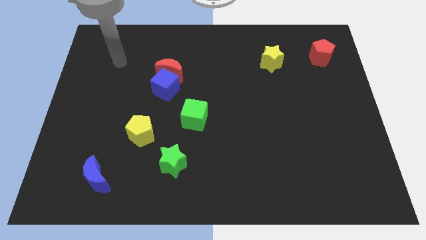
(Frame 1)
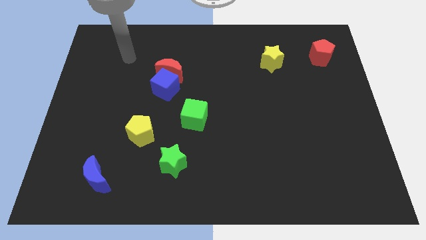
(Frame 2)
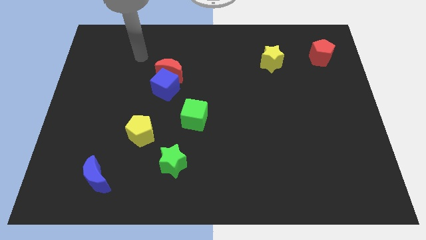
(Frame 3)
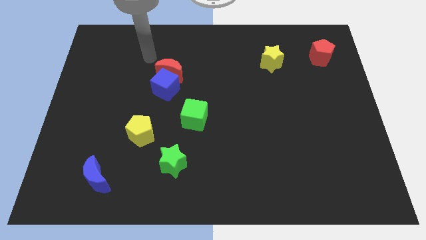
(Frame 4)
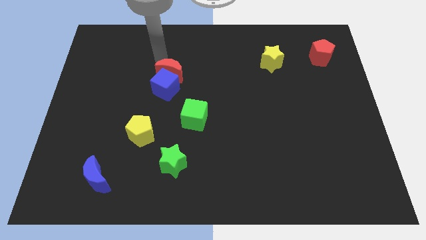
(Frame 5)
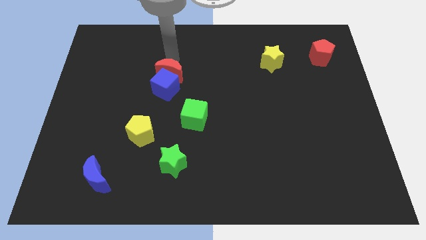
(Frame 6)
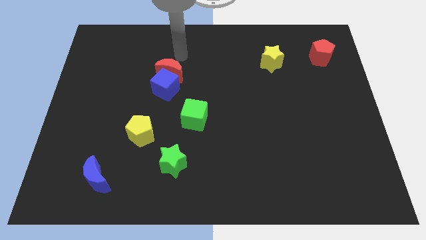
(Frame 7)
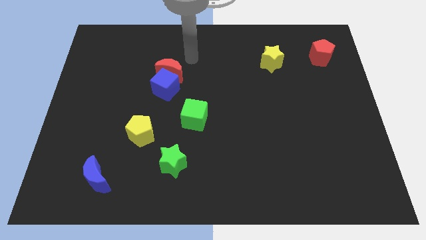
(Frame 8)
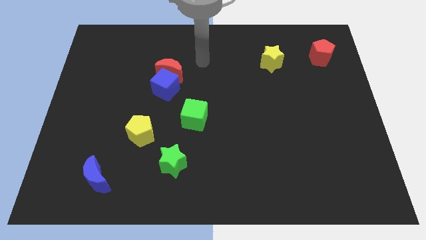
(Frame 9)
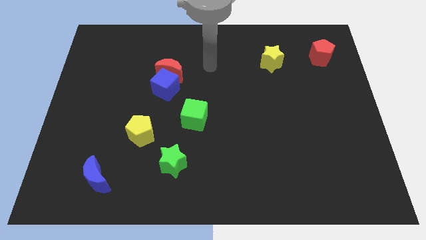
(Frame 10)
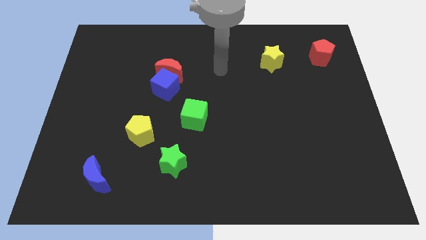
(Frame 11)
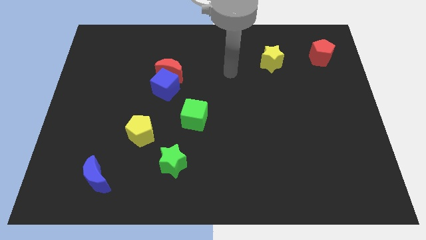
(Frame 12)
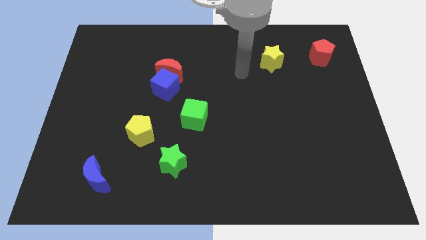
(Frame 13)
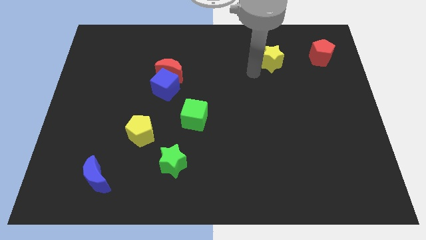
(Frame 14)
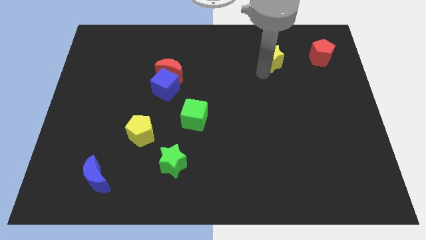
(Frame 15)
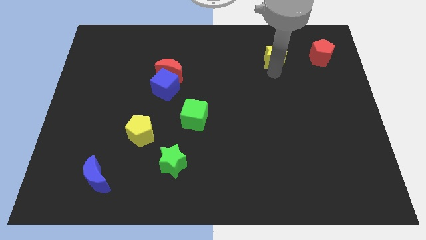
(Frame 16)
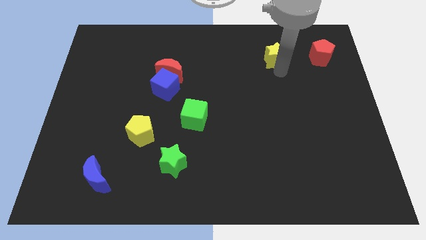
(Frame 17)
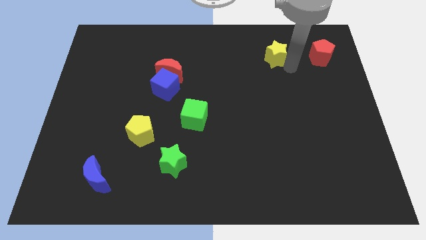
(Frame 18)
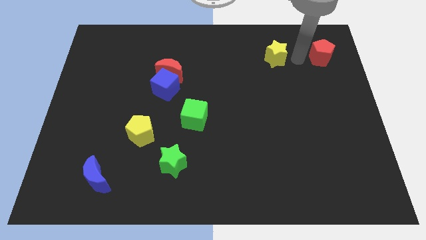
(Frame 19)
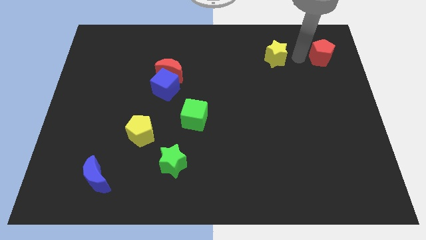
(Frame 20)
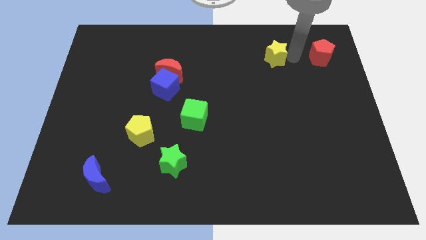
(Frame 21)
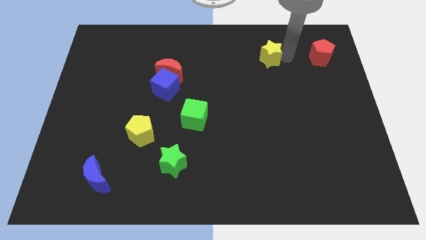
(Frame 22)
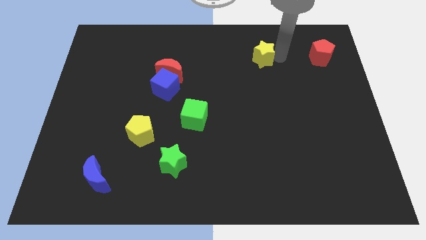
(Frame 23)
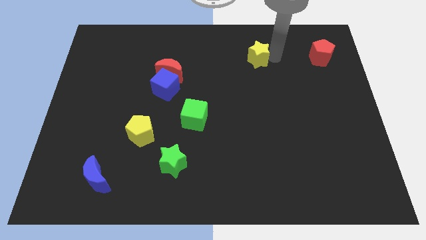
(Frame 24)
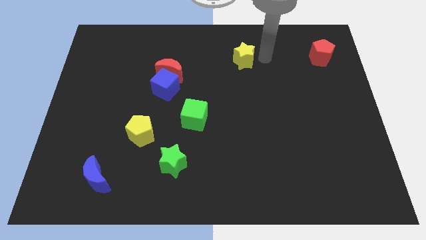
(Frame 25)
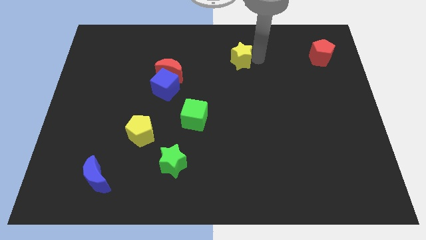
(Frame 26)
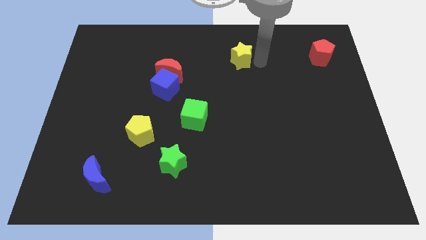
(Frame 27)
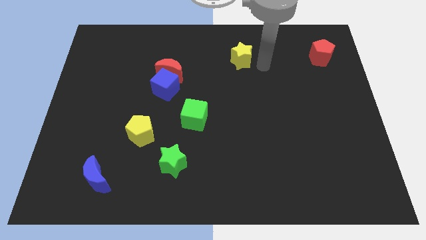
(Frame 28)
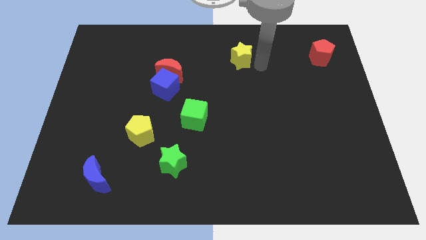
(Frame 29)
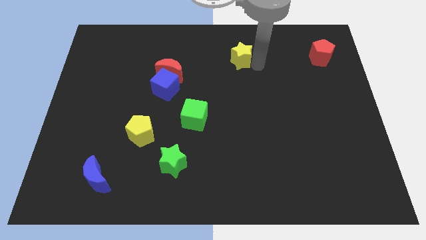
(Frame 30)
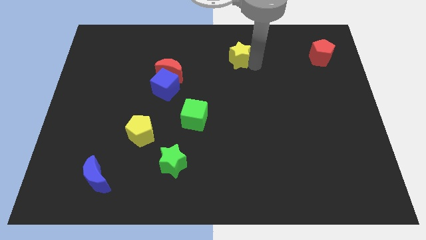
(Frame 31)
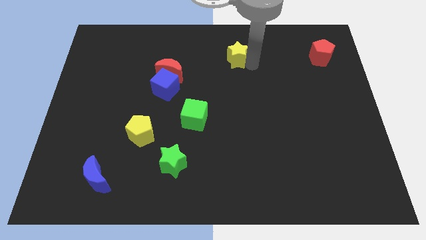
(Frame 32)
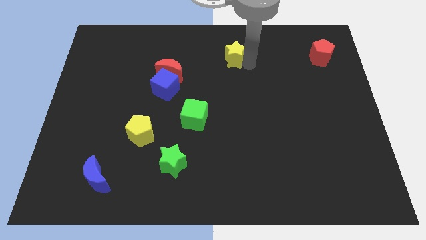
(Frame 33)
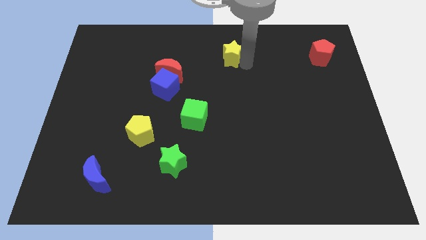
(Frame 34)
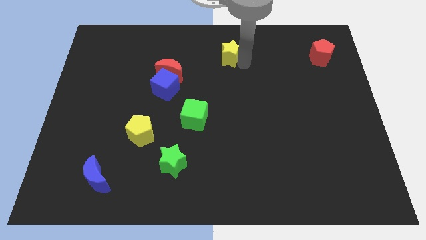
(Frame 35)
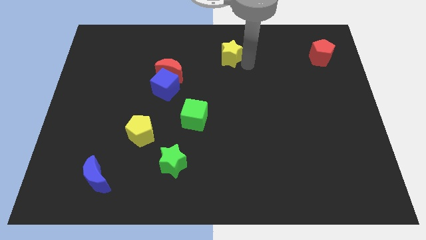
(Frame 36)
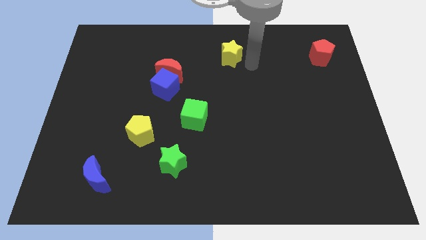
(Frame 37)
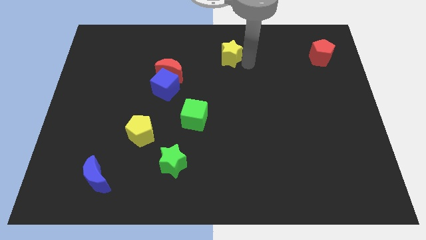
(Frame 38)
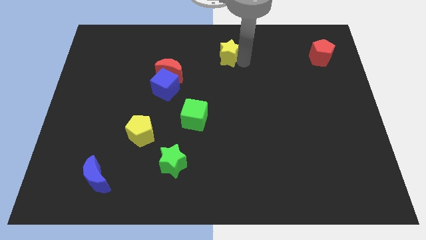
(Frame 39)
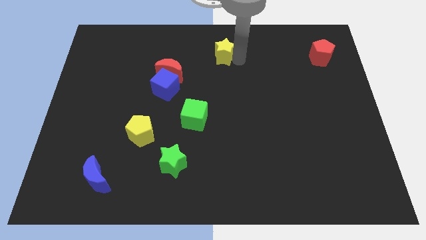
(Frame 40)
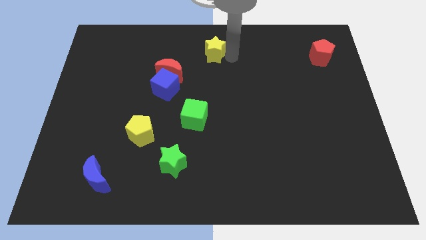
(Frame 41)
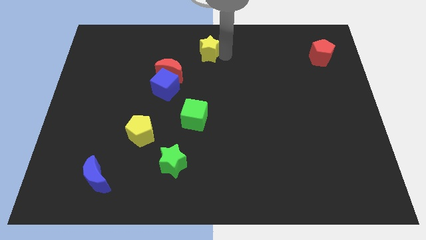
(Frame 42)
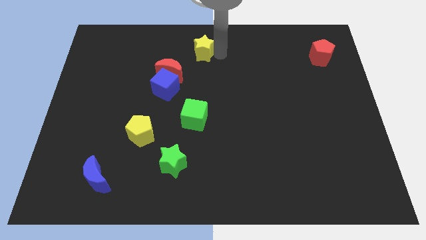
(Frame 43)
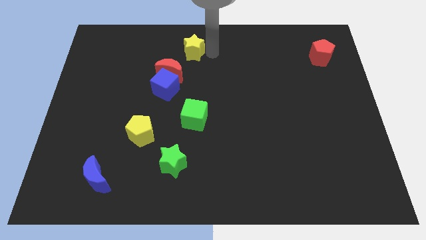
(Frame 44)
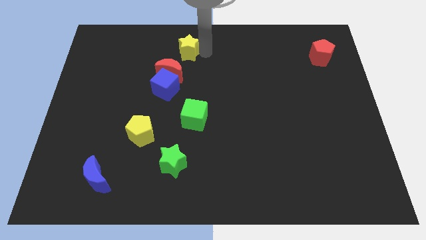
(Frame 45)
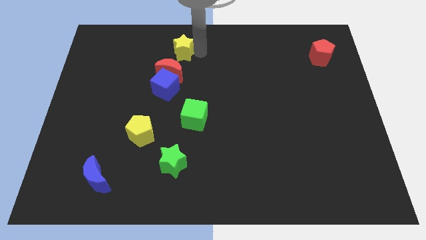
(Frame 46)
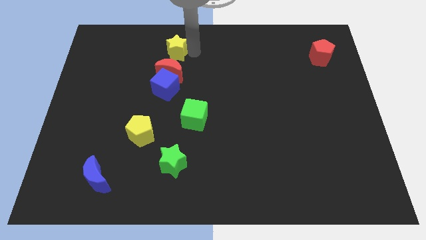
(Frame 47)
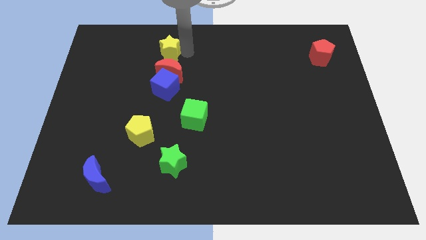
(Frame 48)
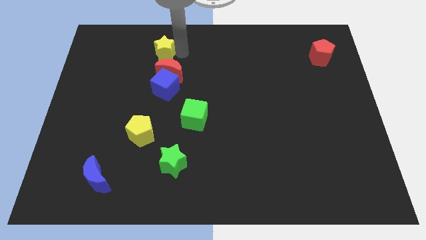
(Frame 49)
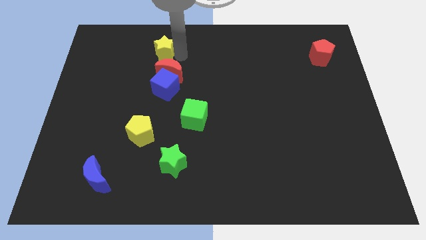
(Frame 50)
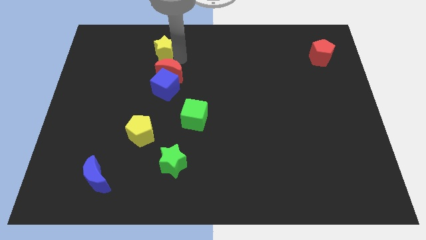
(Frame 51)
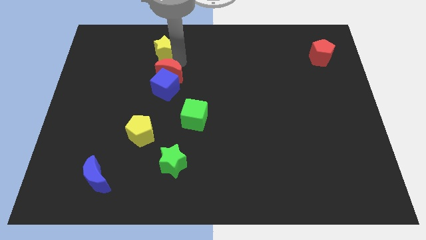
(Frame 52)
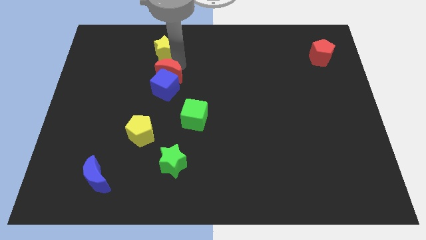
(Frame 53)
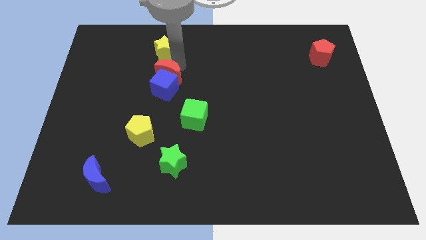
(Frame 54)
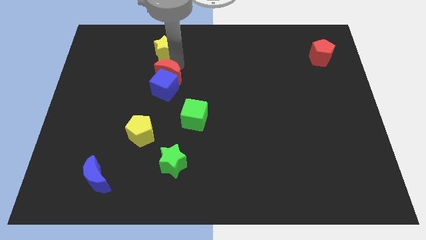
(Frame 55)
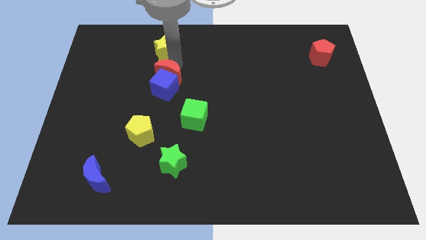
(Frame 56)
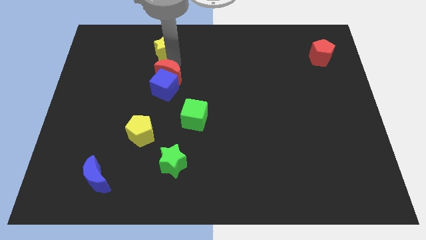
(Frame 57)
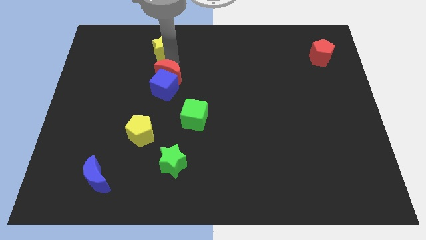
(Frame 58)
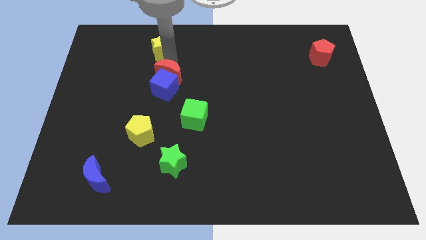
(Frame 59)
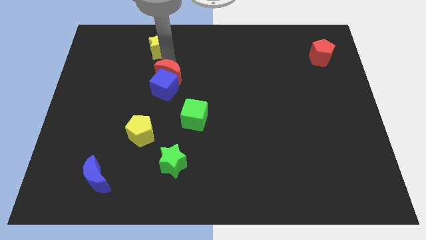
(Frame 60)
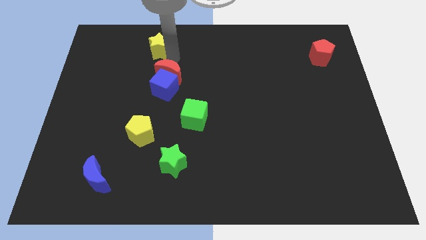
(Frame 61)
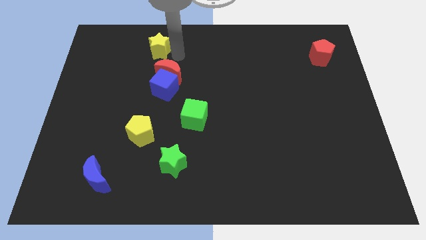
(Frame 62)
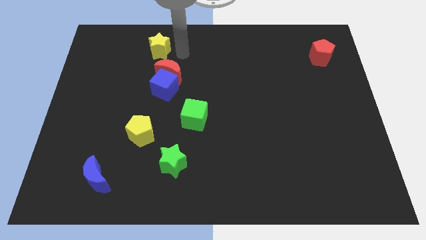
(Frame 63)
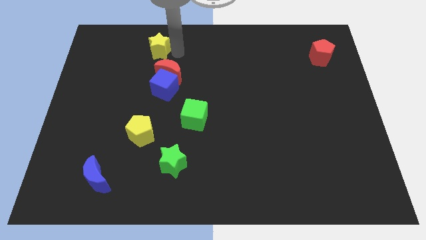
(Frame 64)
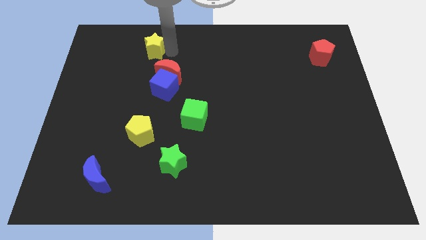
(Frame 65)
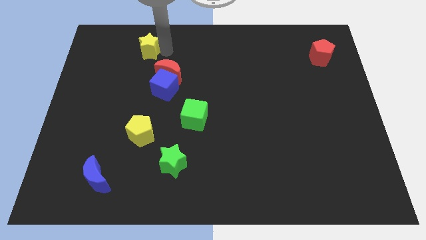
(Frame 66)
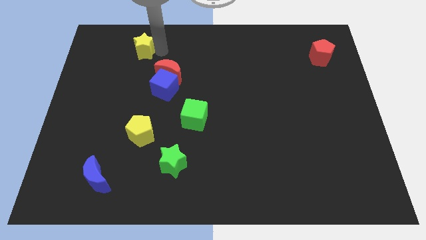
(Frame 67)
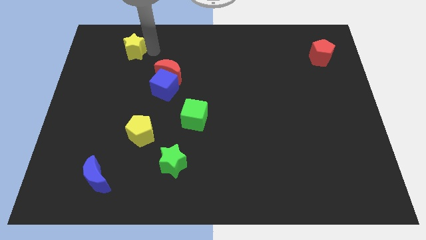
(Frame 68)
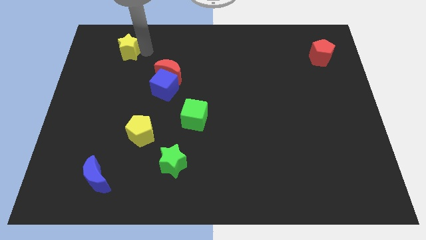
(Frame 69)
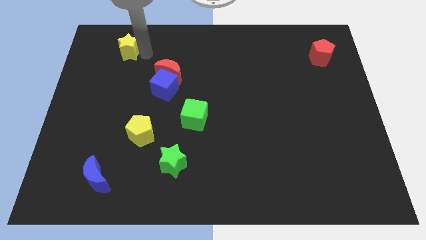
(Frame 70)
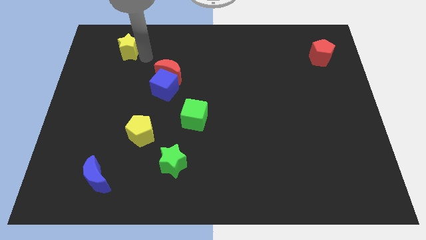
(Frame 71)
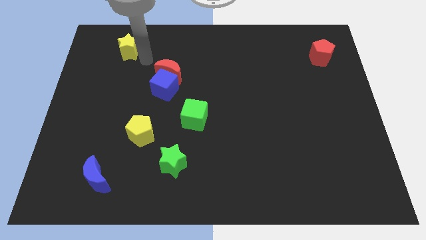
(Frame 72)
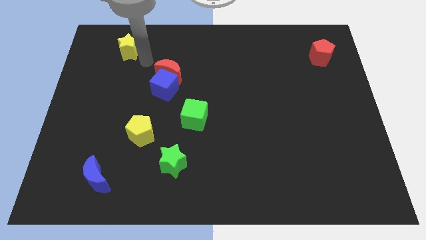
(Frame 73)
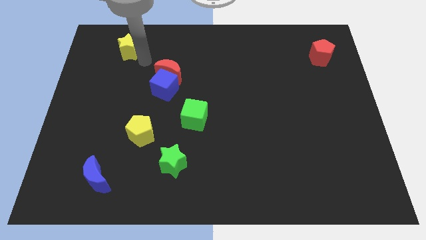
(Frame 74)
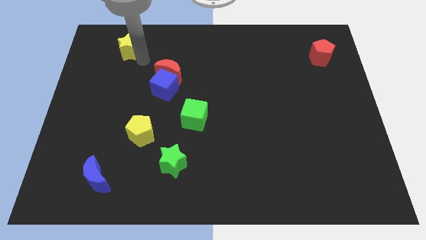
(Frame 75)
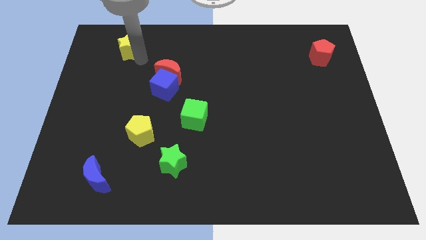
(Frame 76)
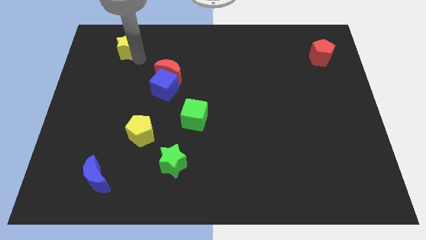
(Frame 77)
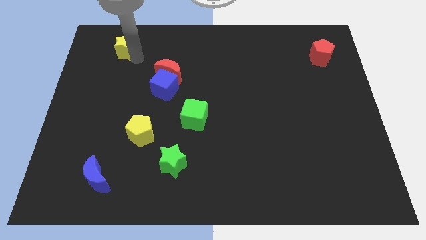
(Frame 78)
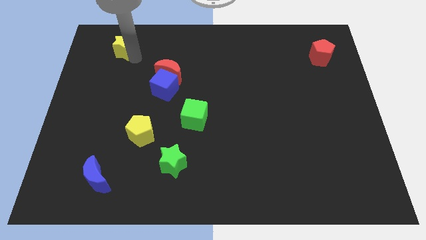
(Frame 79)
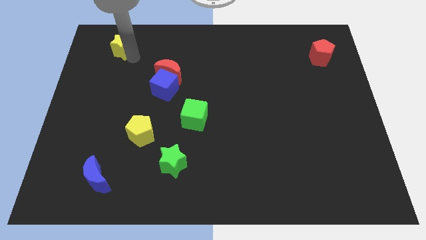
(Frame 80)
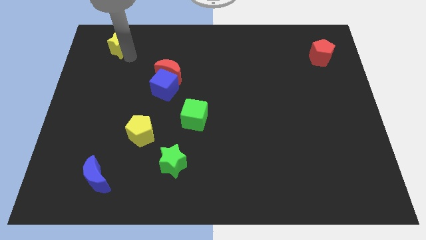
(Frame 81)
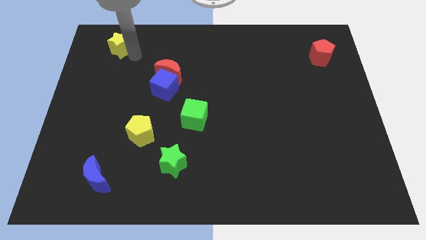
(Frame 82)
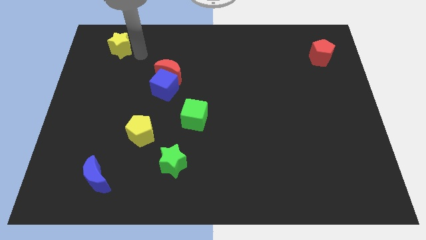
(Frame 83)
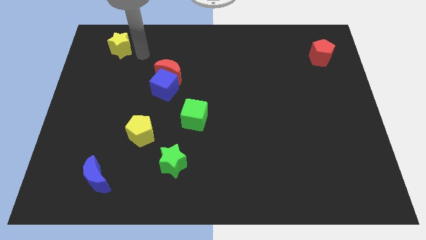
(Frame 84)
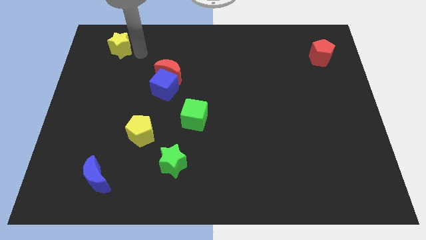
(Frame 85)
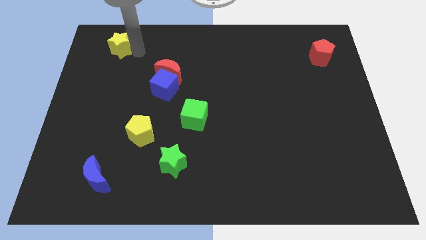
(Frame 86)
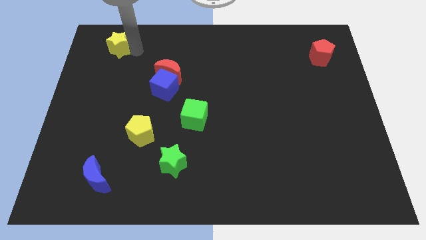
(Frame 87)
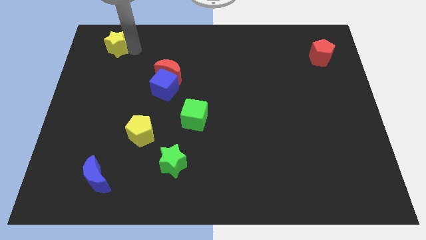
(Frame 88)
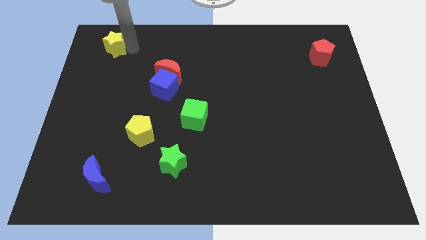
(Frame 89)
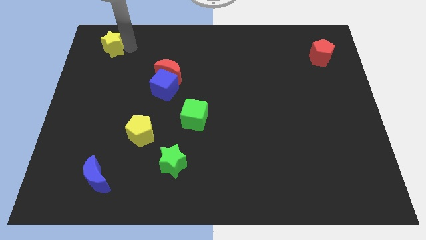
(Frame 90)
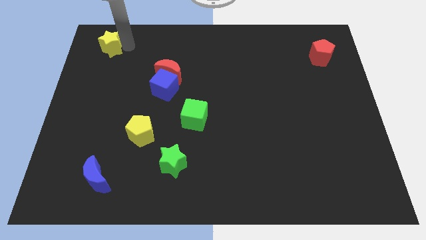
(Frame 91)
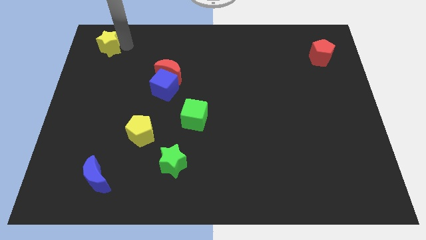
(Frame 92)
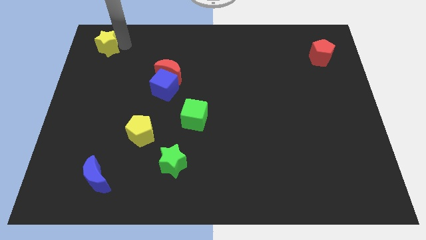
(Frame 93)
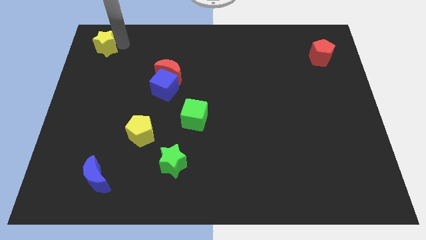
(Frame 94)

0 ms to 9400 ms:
put the yellow star to the top left
